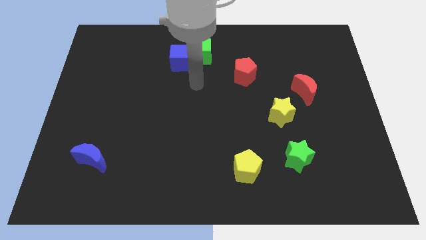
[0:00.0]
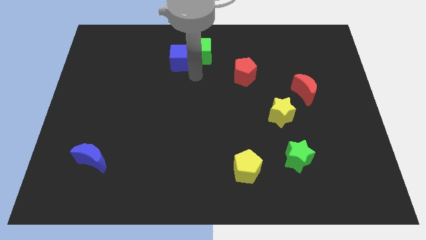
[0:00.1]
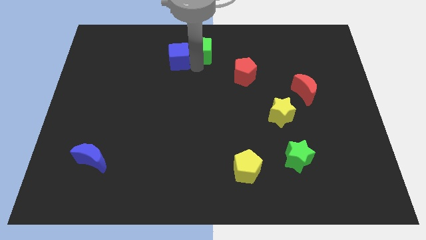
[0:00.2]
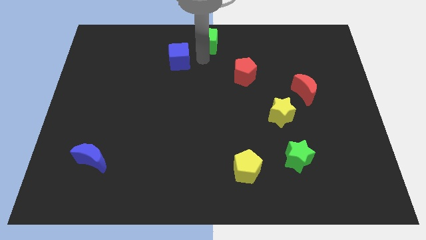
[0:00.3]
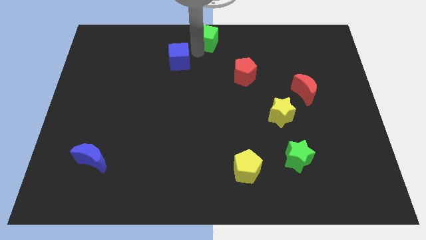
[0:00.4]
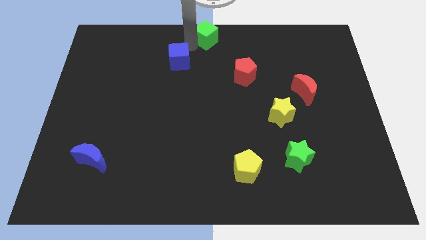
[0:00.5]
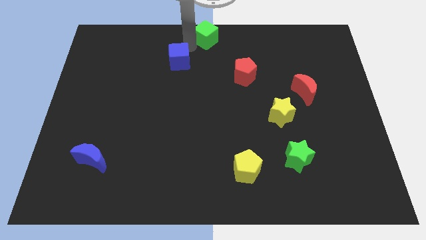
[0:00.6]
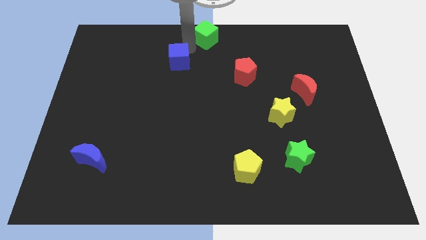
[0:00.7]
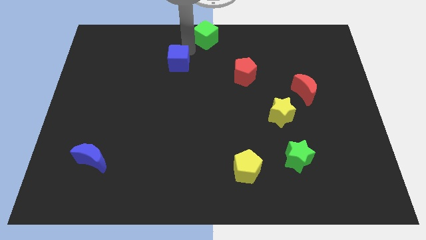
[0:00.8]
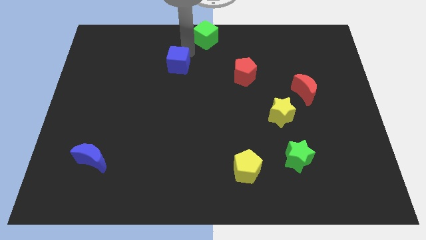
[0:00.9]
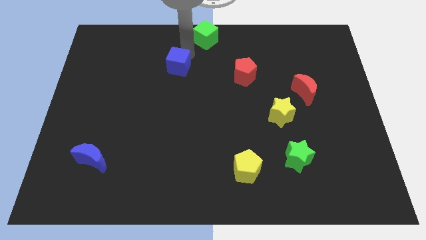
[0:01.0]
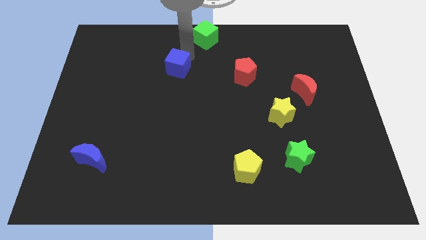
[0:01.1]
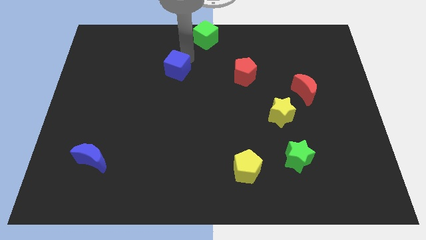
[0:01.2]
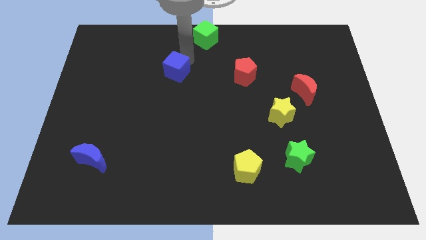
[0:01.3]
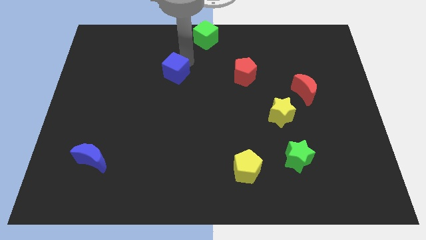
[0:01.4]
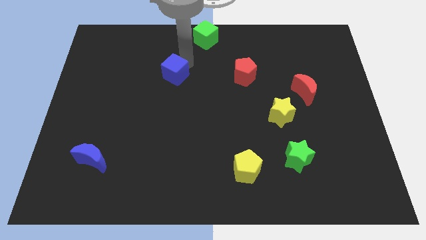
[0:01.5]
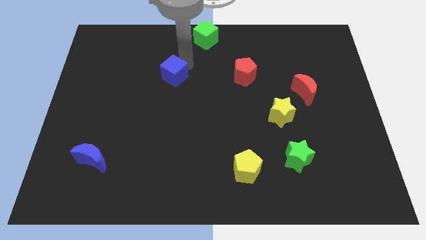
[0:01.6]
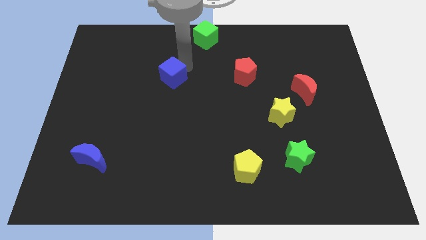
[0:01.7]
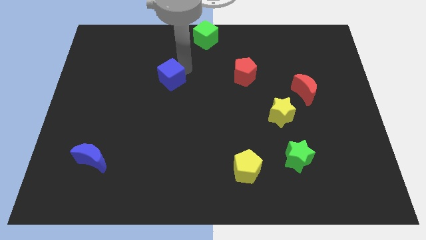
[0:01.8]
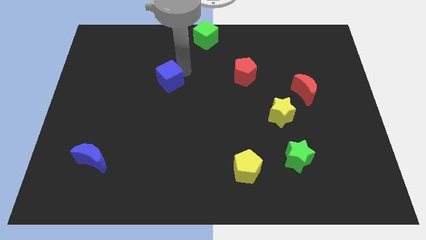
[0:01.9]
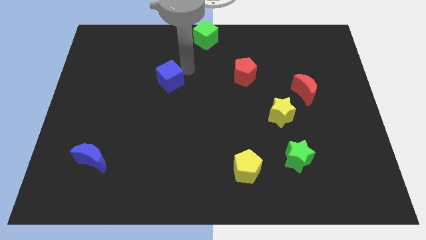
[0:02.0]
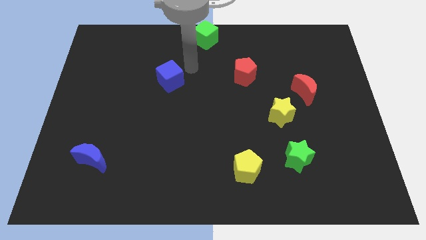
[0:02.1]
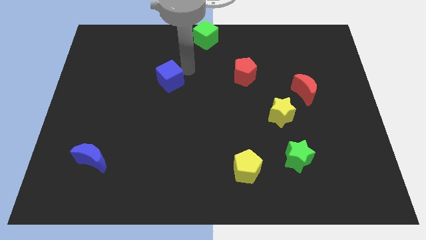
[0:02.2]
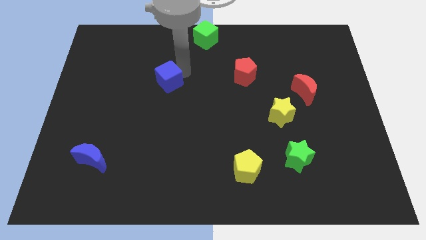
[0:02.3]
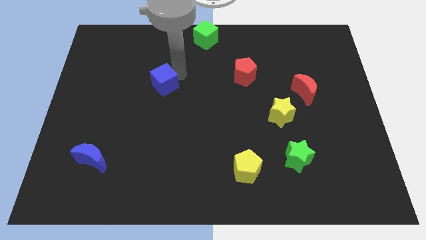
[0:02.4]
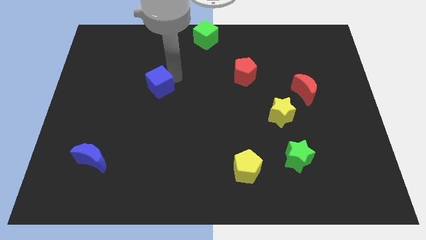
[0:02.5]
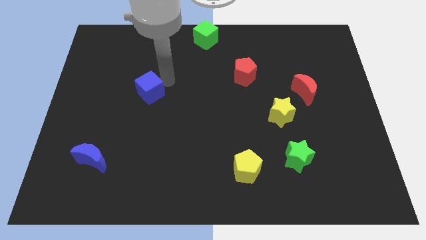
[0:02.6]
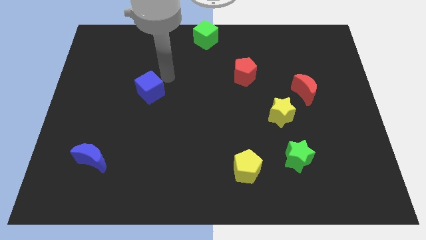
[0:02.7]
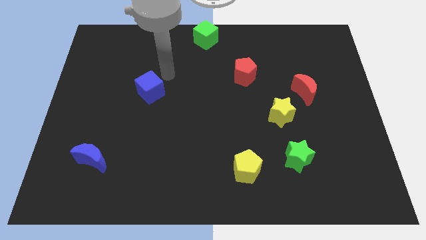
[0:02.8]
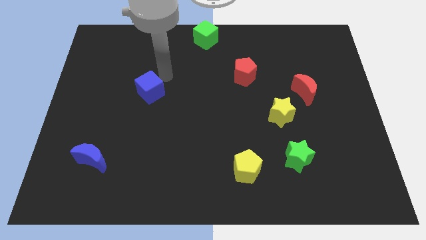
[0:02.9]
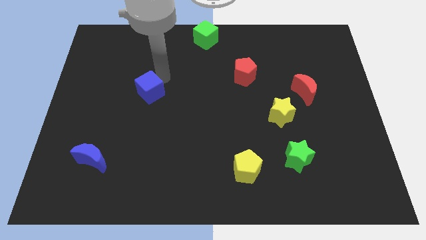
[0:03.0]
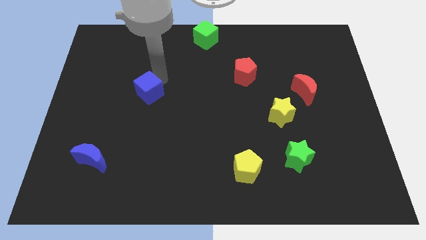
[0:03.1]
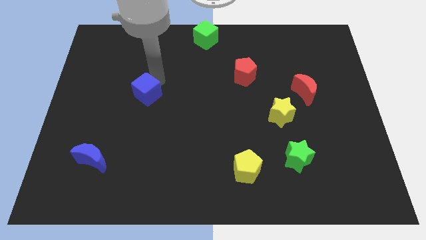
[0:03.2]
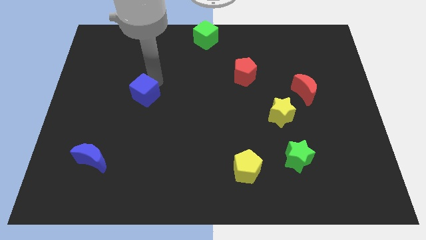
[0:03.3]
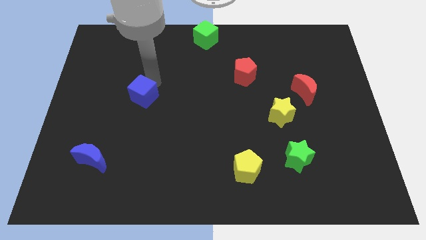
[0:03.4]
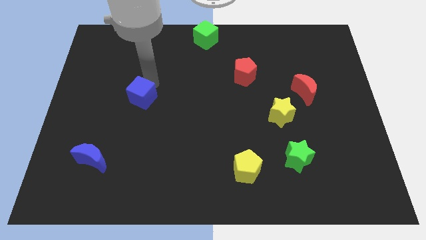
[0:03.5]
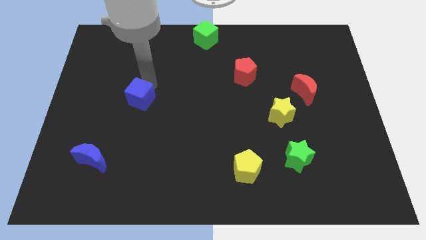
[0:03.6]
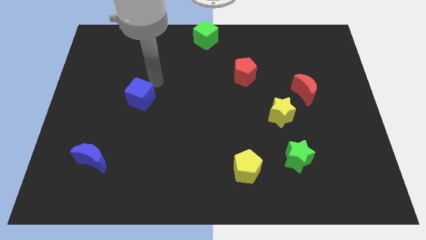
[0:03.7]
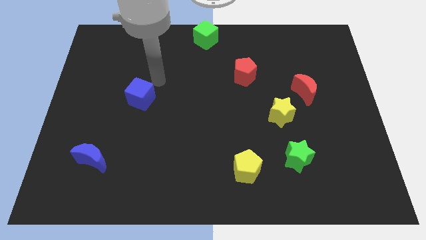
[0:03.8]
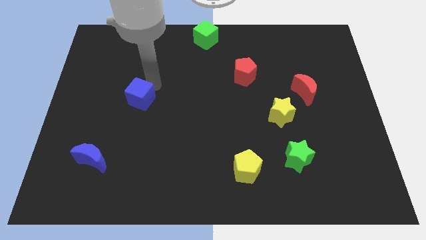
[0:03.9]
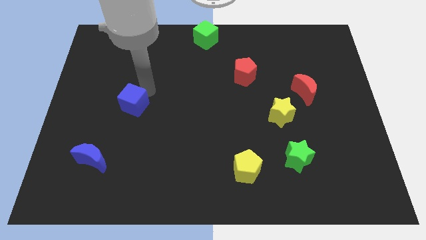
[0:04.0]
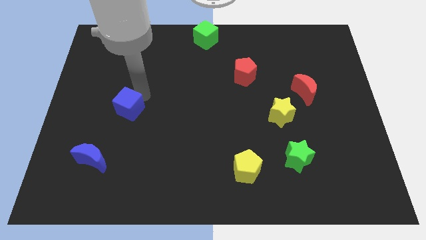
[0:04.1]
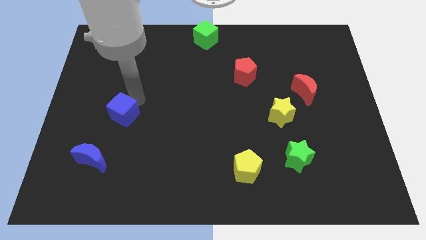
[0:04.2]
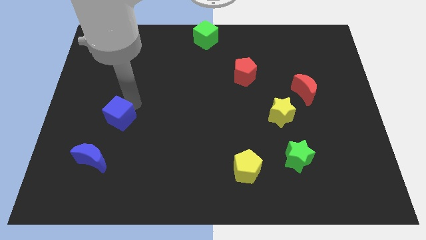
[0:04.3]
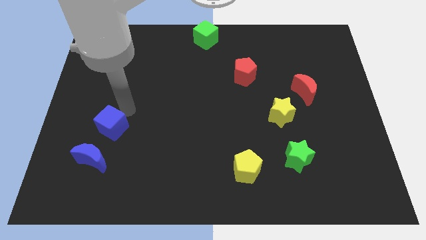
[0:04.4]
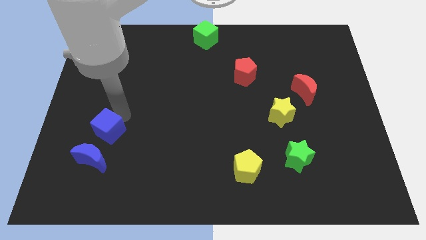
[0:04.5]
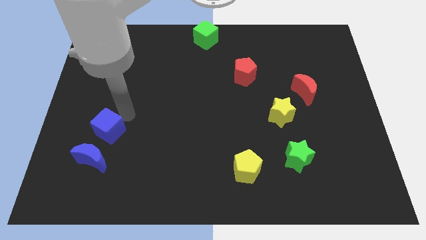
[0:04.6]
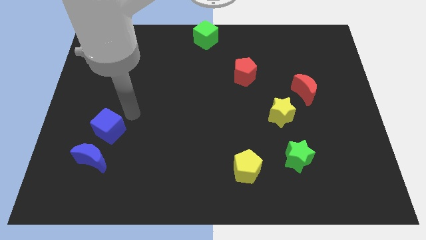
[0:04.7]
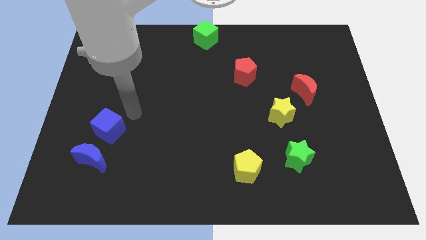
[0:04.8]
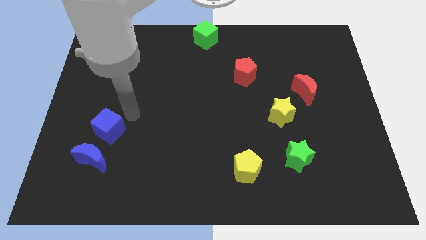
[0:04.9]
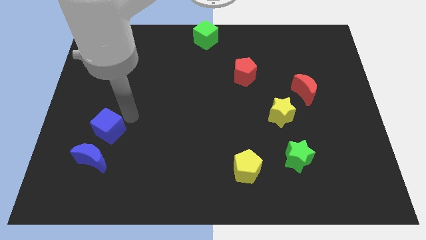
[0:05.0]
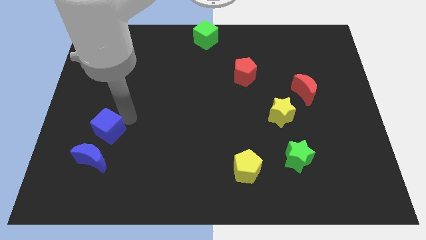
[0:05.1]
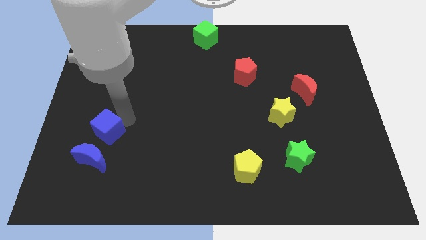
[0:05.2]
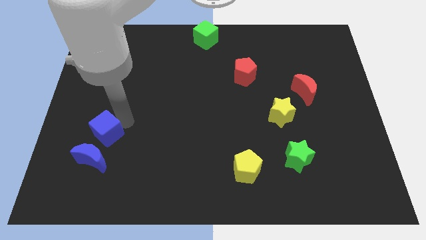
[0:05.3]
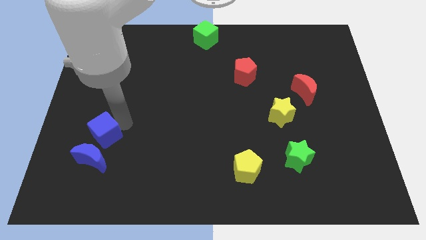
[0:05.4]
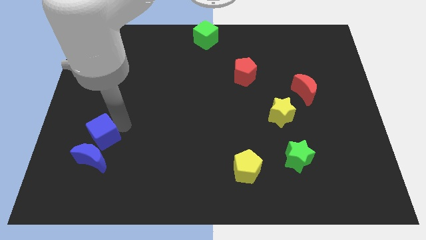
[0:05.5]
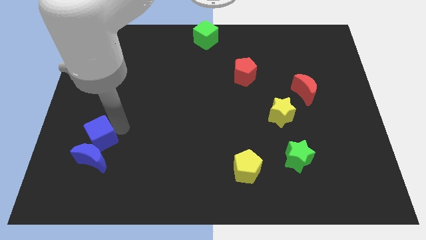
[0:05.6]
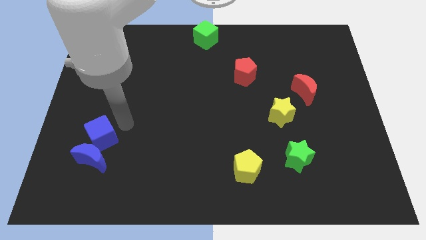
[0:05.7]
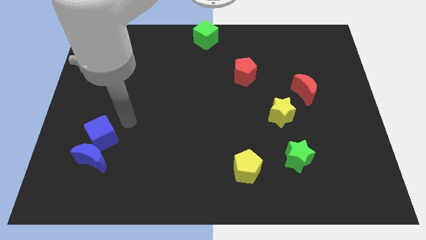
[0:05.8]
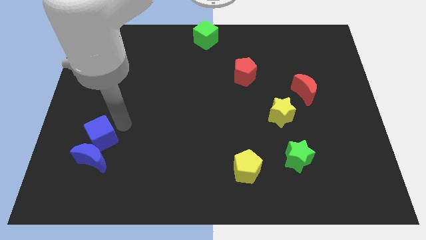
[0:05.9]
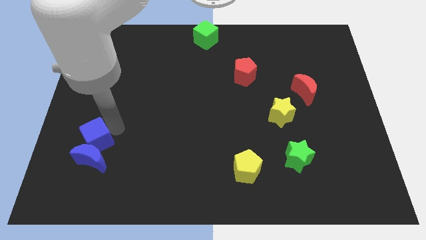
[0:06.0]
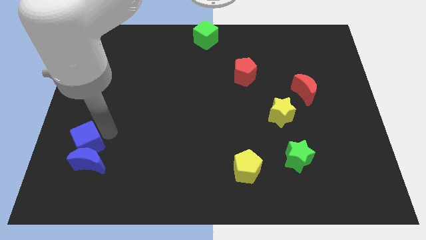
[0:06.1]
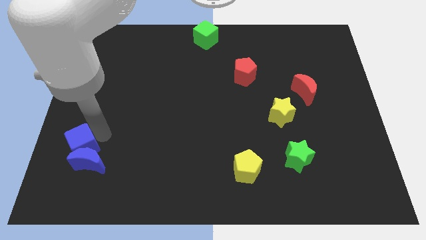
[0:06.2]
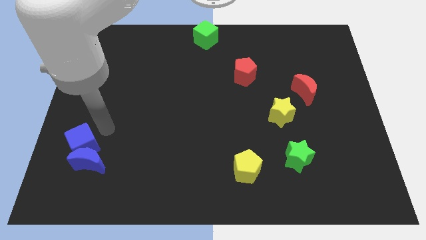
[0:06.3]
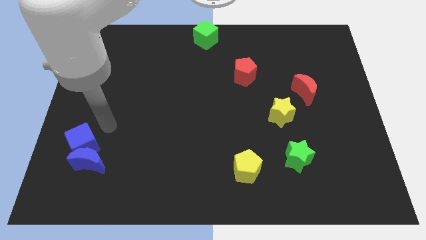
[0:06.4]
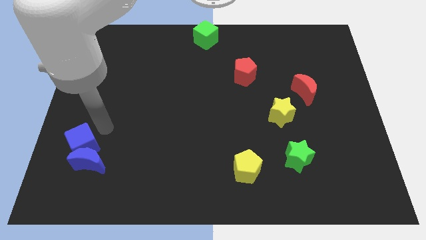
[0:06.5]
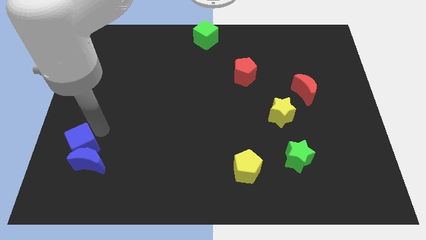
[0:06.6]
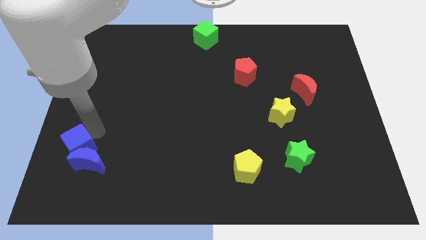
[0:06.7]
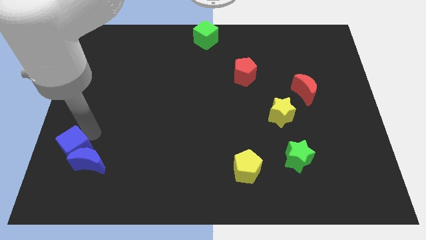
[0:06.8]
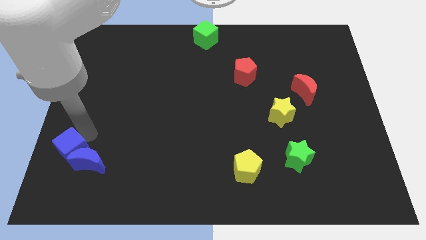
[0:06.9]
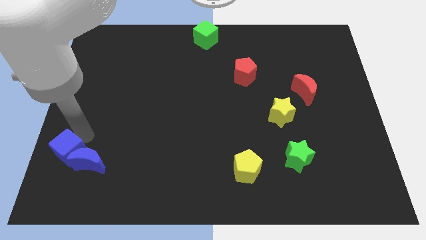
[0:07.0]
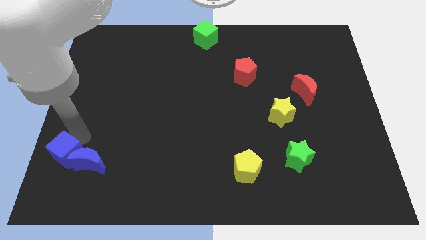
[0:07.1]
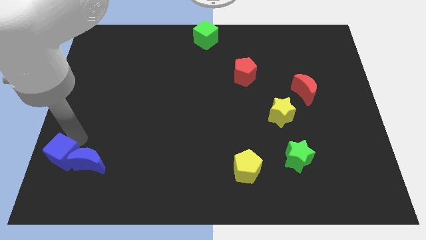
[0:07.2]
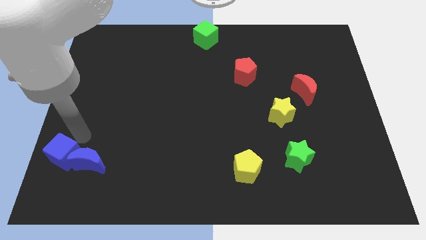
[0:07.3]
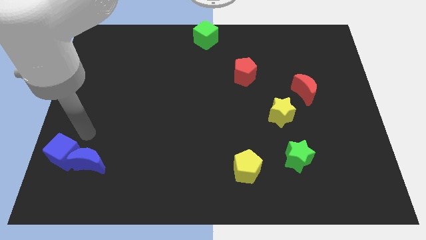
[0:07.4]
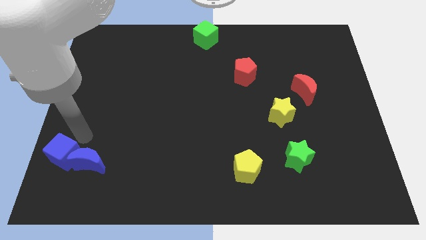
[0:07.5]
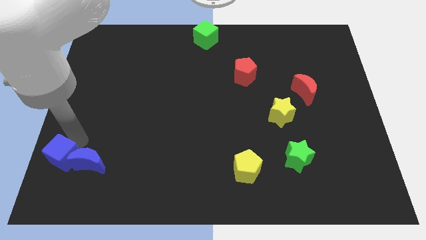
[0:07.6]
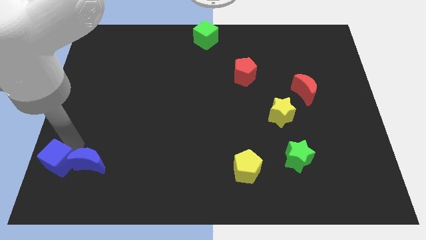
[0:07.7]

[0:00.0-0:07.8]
push the blue cube to the bottom left of the board
